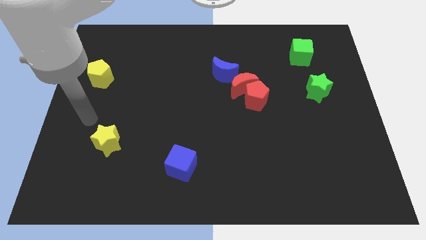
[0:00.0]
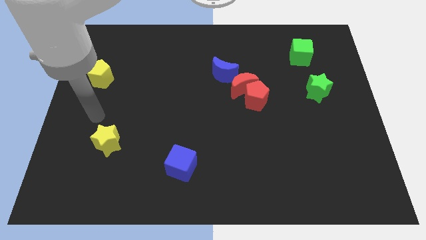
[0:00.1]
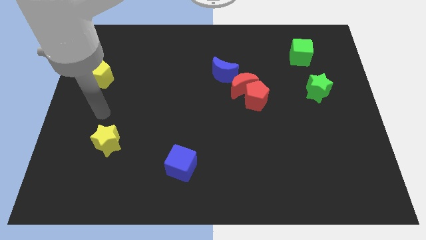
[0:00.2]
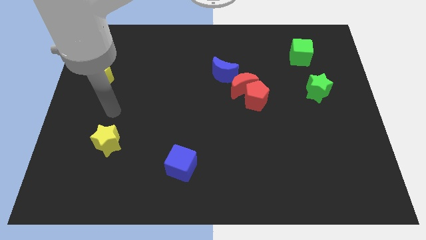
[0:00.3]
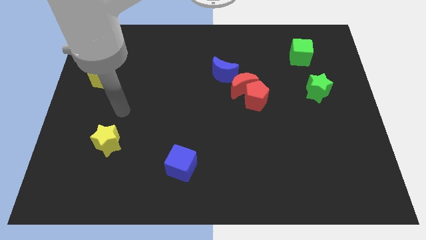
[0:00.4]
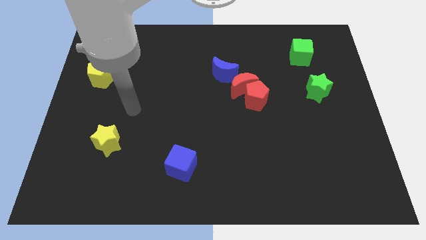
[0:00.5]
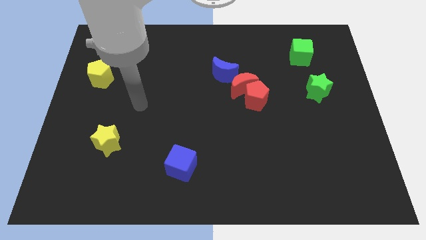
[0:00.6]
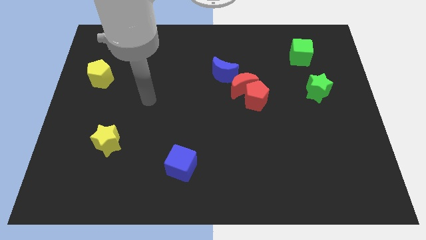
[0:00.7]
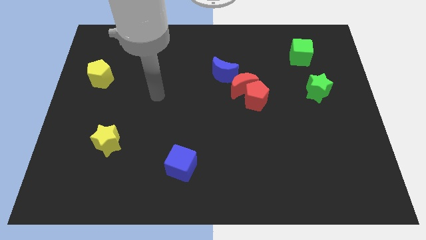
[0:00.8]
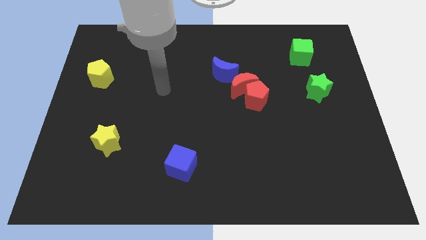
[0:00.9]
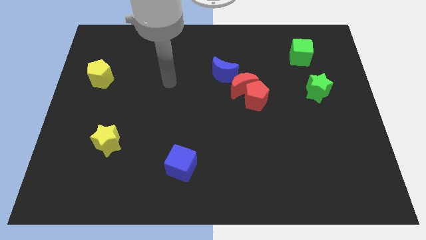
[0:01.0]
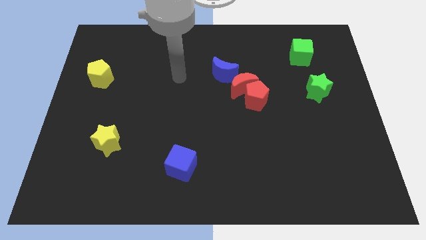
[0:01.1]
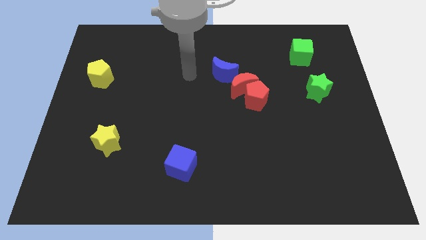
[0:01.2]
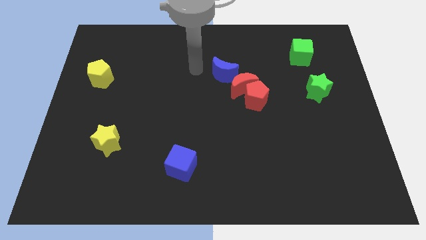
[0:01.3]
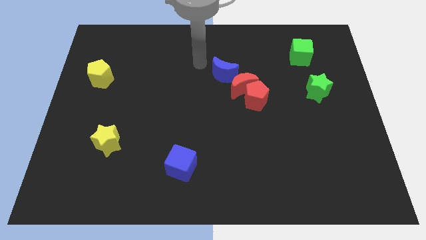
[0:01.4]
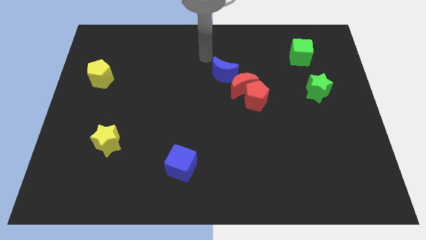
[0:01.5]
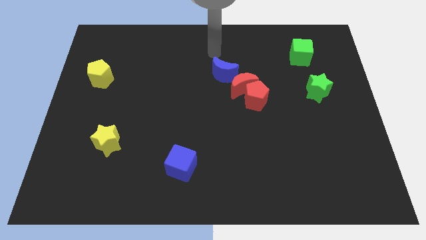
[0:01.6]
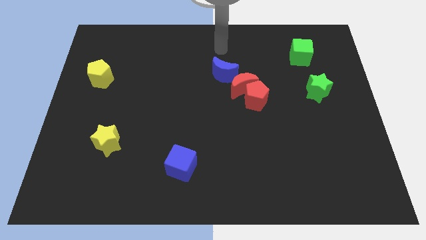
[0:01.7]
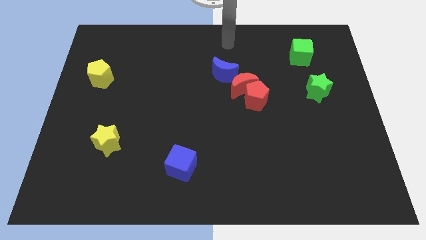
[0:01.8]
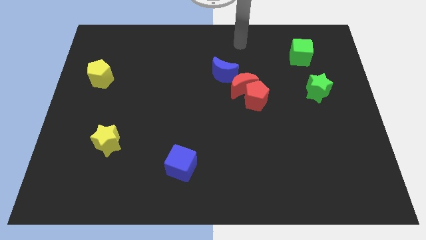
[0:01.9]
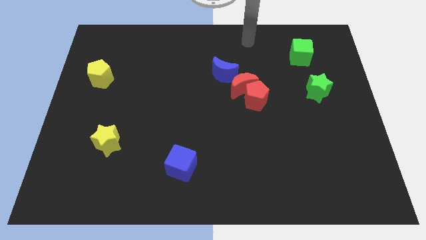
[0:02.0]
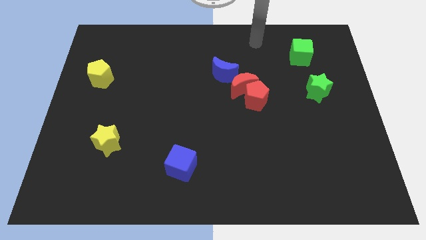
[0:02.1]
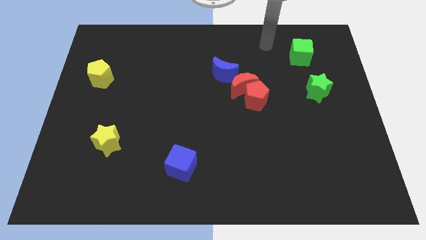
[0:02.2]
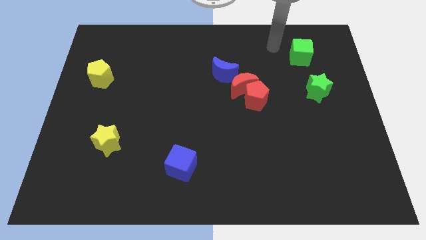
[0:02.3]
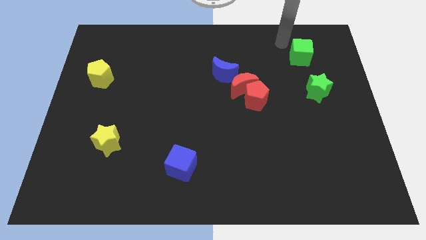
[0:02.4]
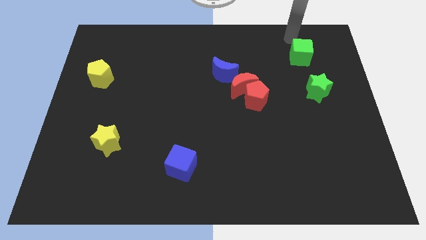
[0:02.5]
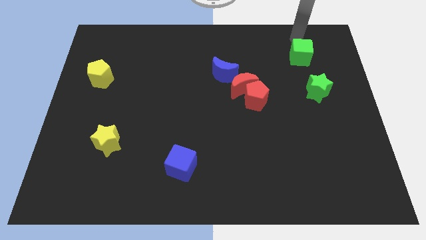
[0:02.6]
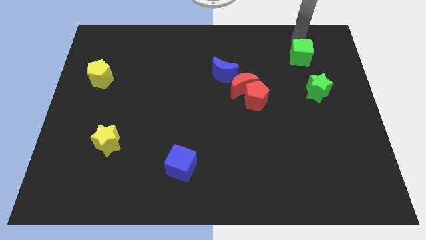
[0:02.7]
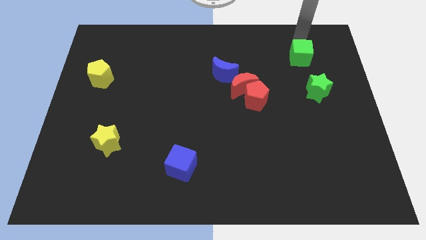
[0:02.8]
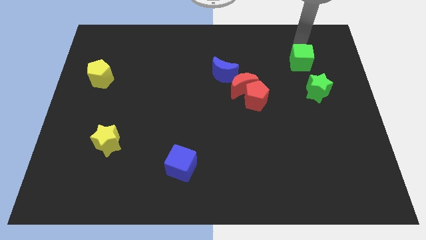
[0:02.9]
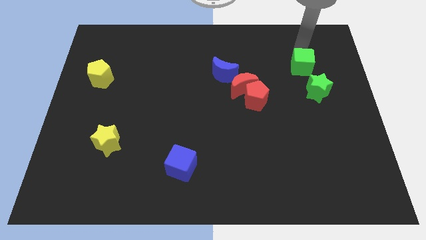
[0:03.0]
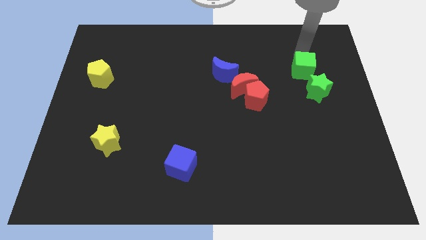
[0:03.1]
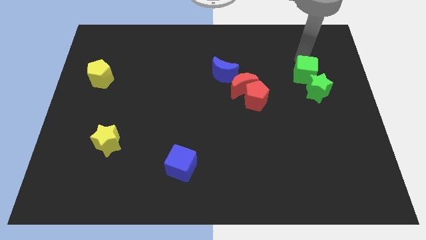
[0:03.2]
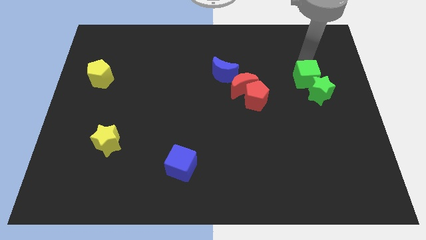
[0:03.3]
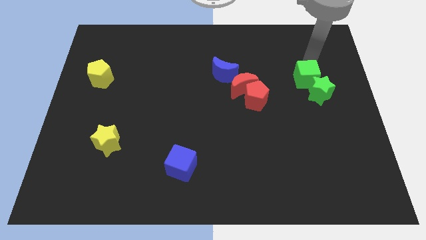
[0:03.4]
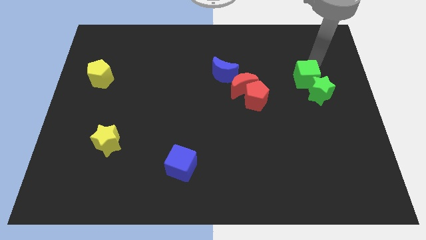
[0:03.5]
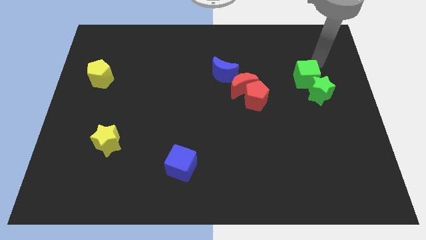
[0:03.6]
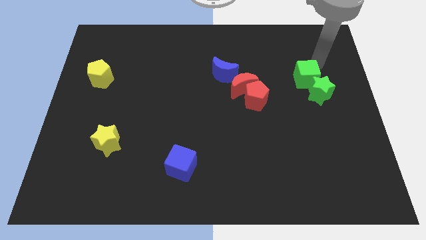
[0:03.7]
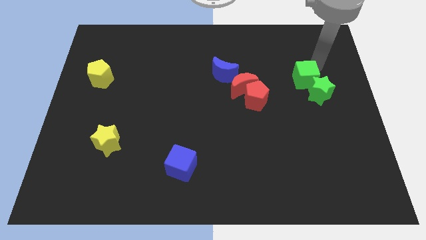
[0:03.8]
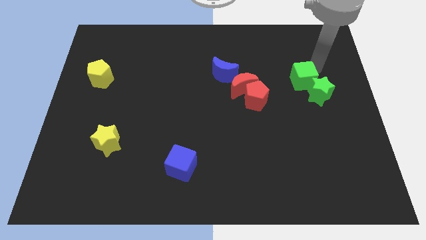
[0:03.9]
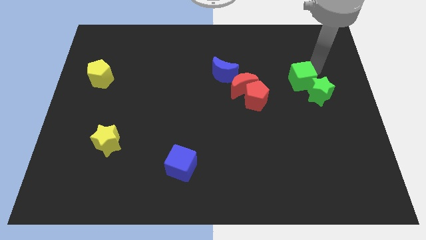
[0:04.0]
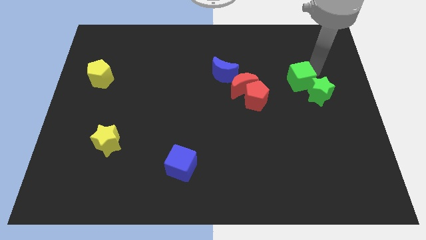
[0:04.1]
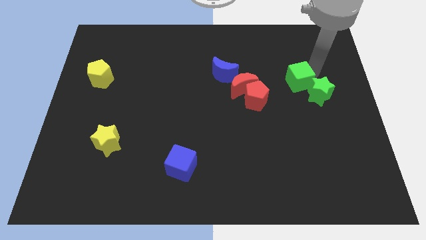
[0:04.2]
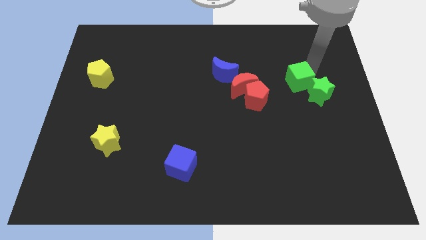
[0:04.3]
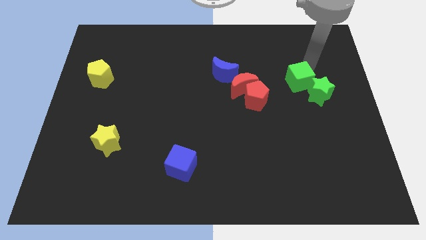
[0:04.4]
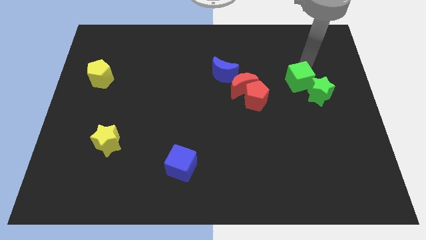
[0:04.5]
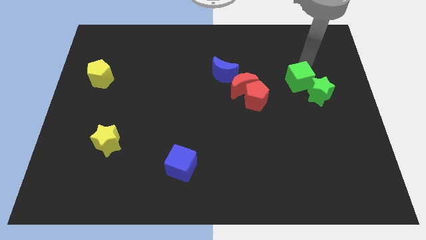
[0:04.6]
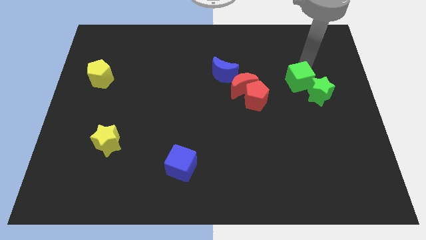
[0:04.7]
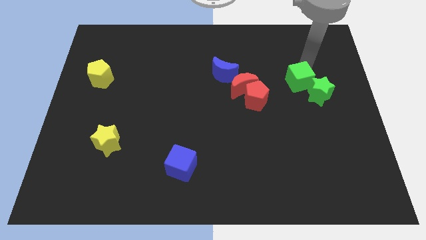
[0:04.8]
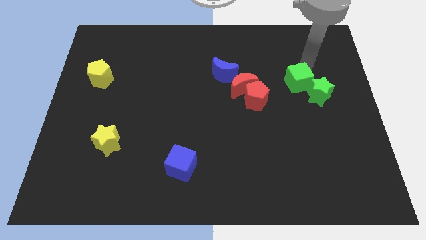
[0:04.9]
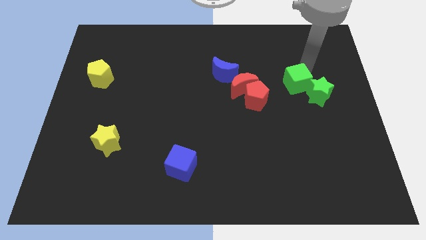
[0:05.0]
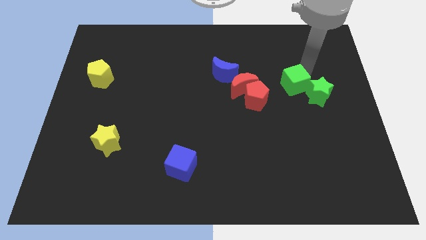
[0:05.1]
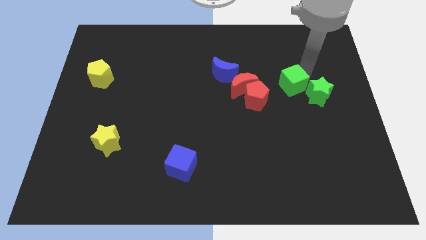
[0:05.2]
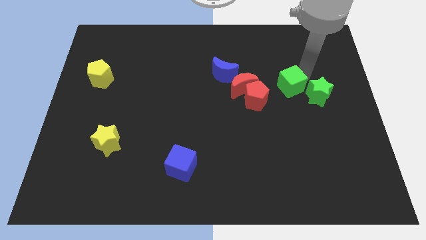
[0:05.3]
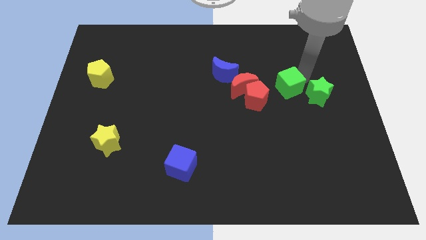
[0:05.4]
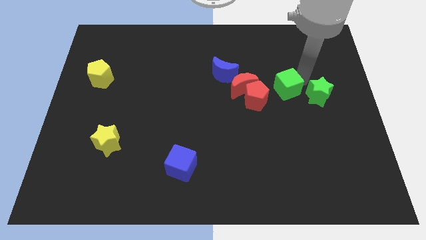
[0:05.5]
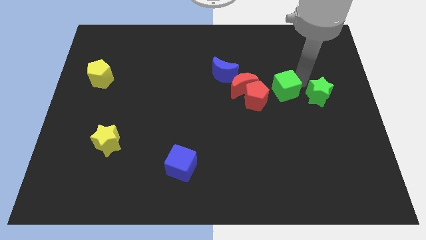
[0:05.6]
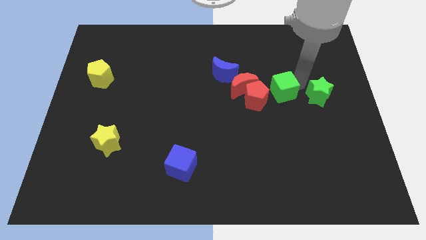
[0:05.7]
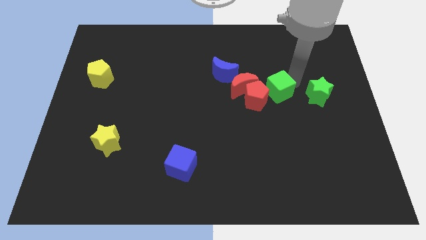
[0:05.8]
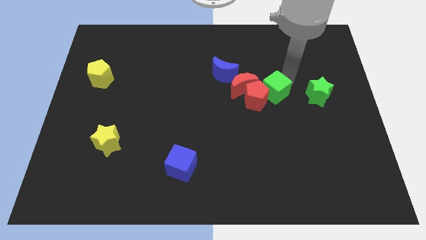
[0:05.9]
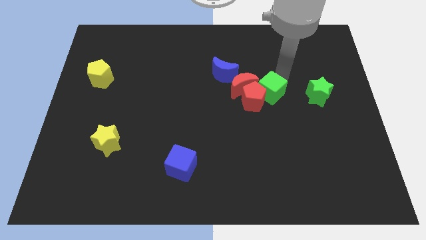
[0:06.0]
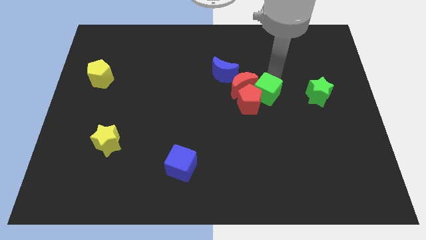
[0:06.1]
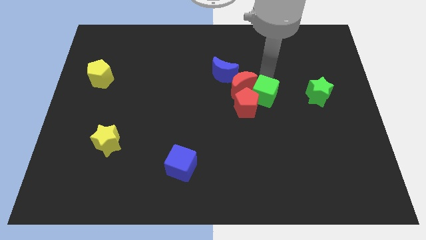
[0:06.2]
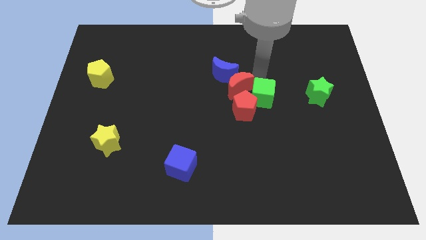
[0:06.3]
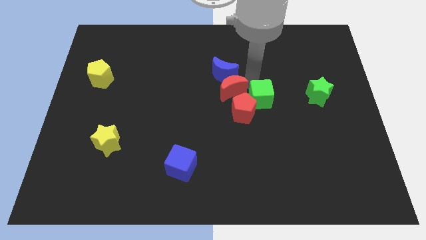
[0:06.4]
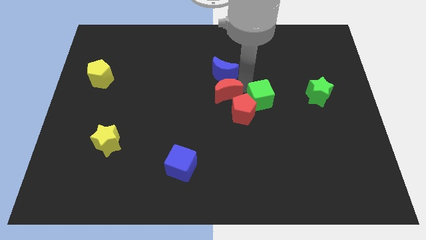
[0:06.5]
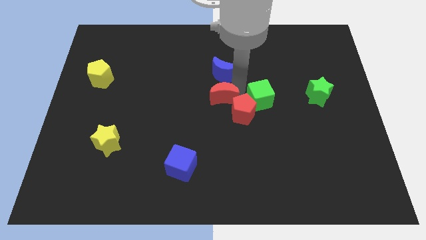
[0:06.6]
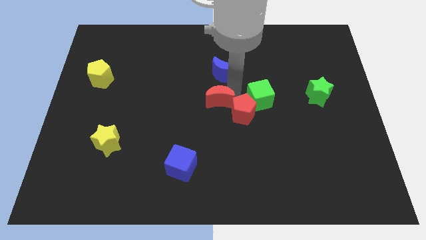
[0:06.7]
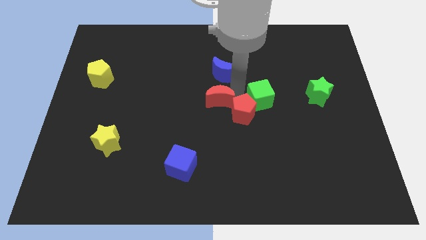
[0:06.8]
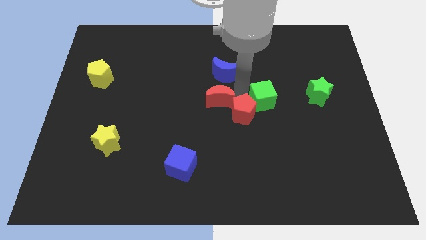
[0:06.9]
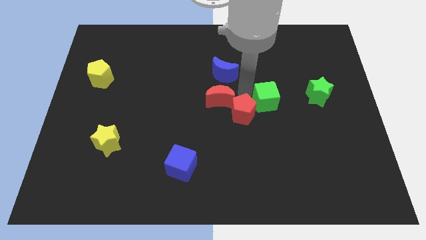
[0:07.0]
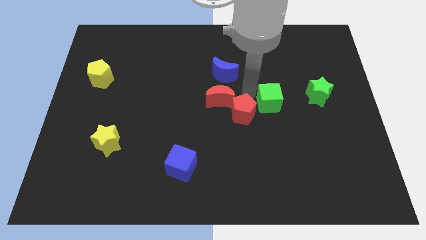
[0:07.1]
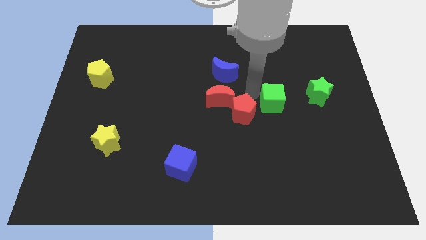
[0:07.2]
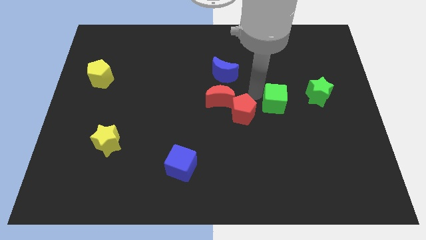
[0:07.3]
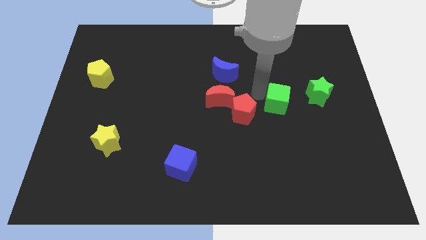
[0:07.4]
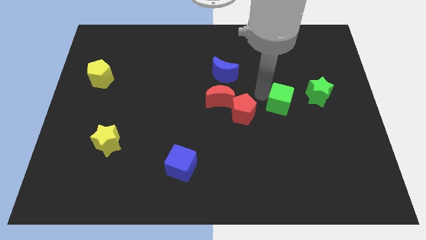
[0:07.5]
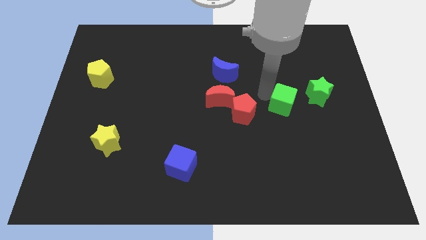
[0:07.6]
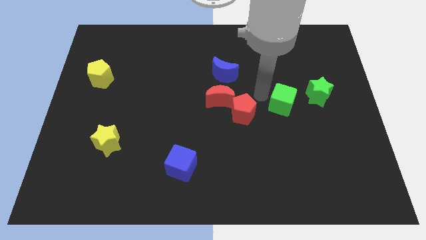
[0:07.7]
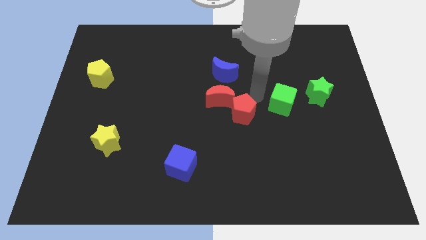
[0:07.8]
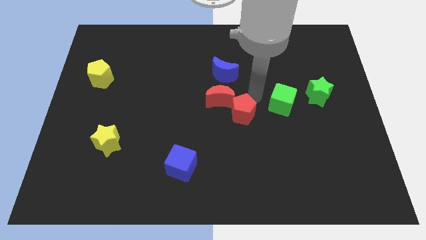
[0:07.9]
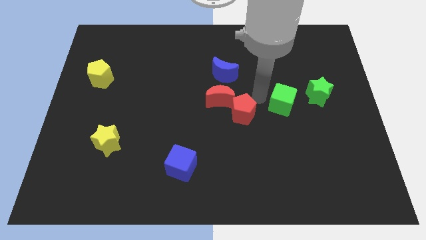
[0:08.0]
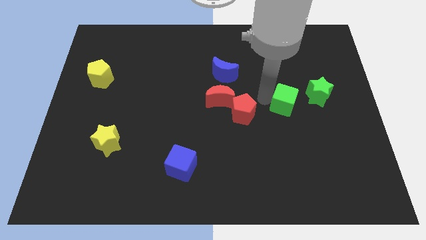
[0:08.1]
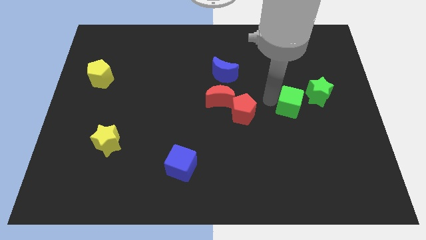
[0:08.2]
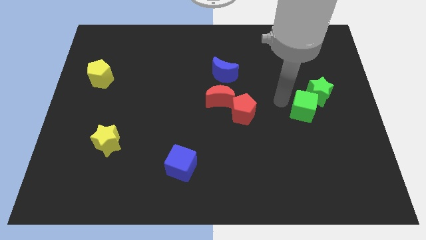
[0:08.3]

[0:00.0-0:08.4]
push the green cube below the green star
